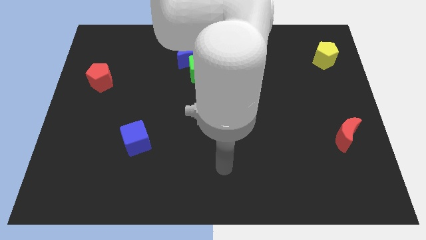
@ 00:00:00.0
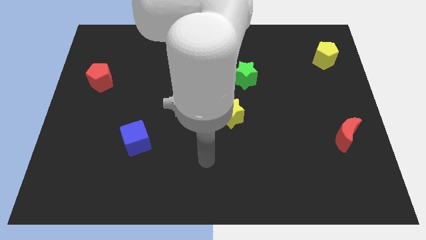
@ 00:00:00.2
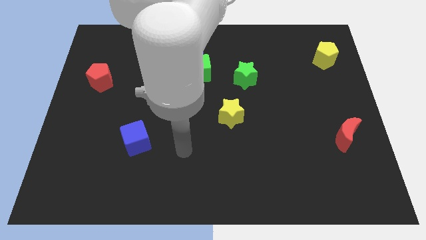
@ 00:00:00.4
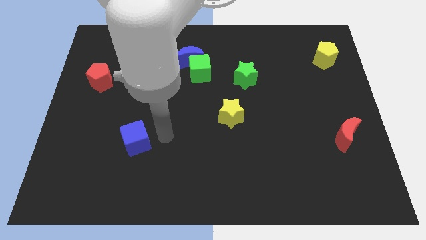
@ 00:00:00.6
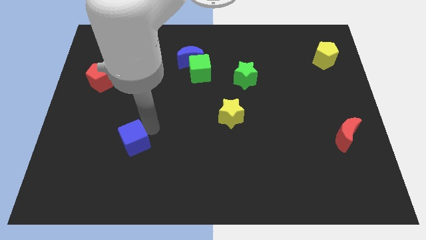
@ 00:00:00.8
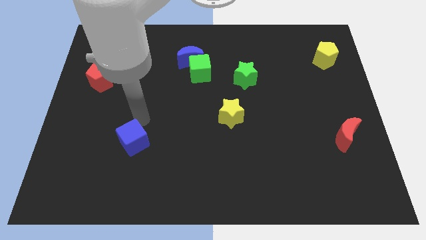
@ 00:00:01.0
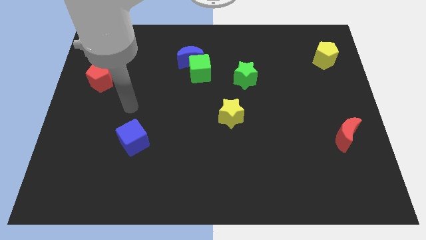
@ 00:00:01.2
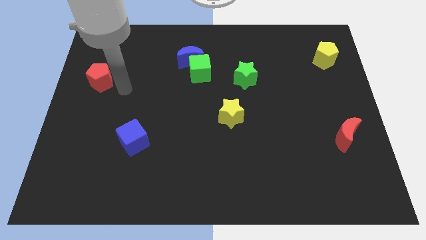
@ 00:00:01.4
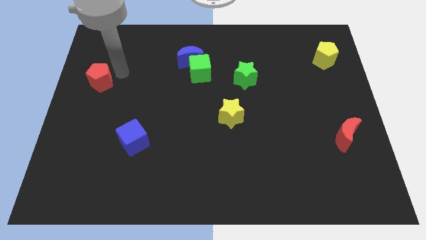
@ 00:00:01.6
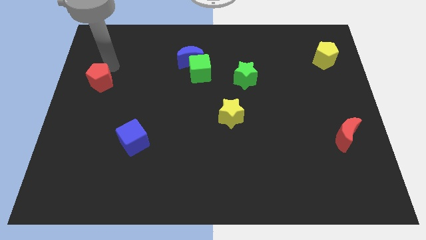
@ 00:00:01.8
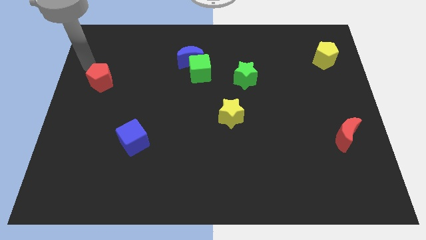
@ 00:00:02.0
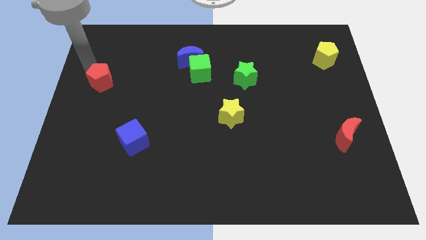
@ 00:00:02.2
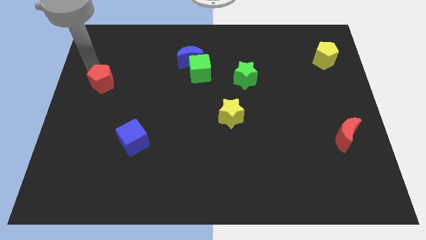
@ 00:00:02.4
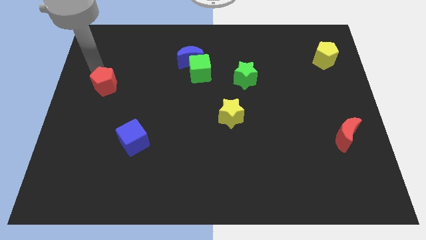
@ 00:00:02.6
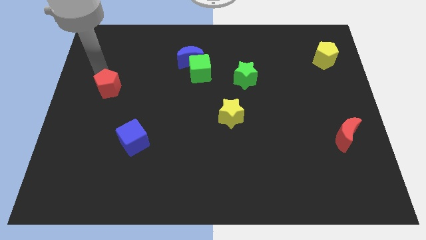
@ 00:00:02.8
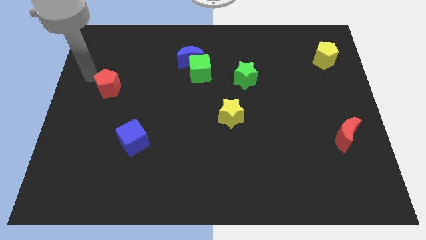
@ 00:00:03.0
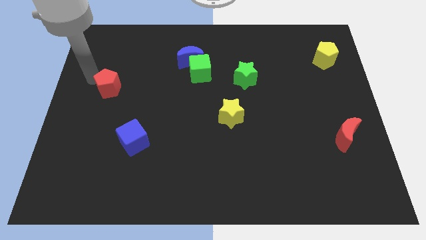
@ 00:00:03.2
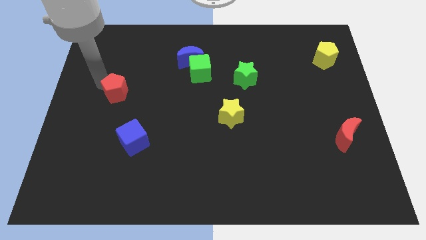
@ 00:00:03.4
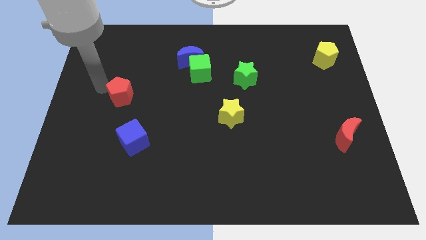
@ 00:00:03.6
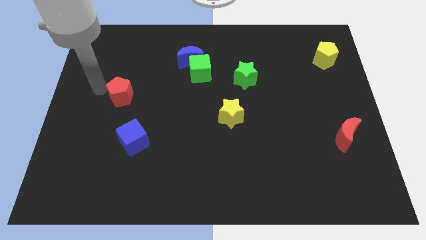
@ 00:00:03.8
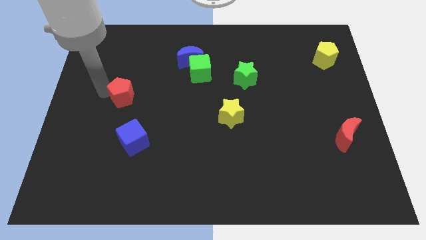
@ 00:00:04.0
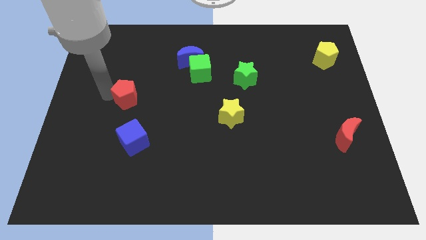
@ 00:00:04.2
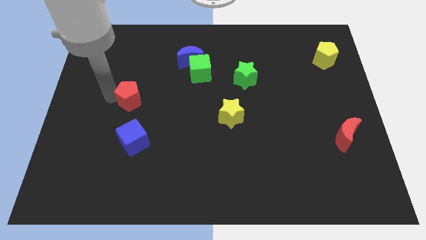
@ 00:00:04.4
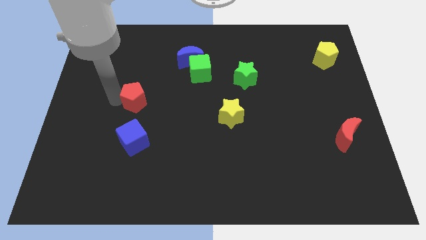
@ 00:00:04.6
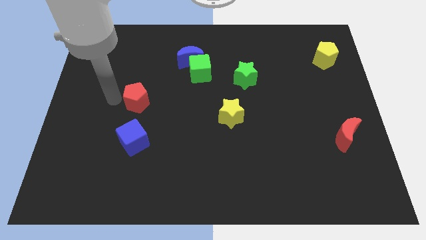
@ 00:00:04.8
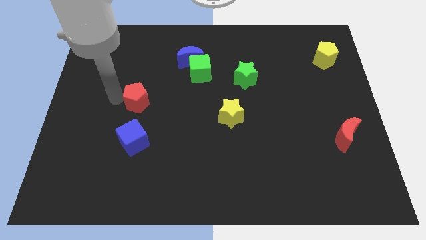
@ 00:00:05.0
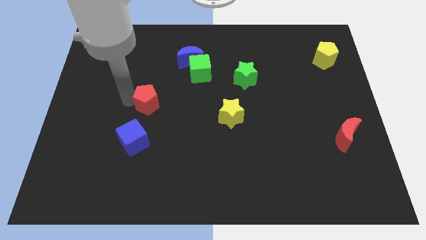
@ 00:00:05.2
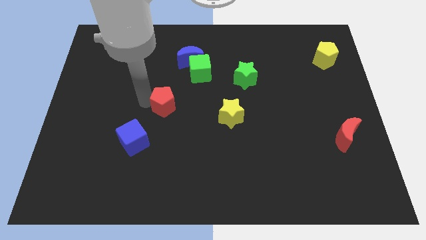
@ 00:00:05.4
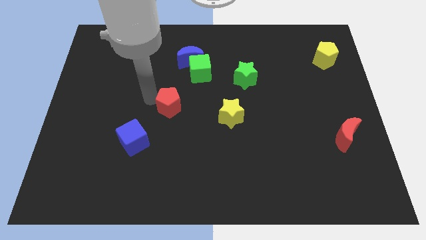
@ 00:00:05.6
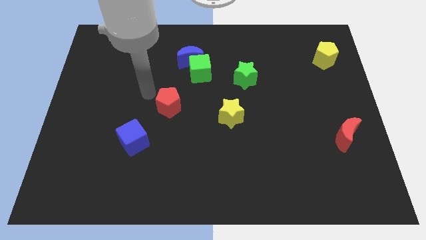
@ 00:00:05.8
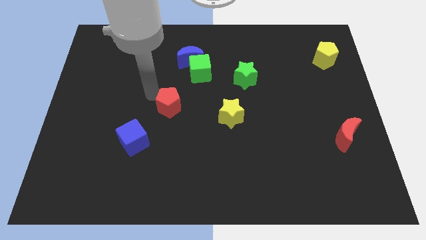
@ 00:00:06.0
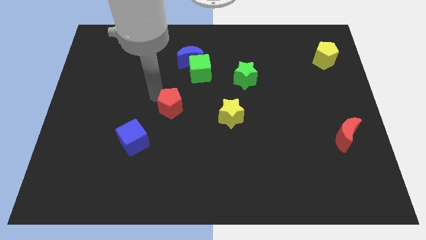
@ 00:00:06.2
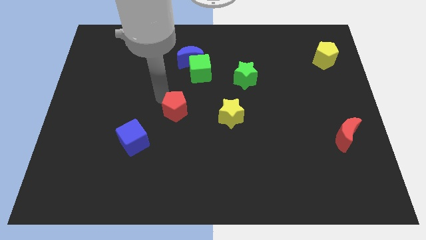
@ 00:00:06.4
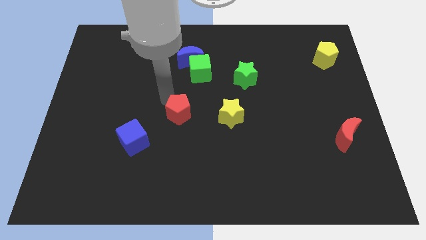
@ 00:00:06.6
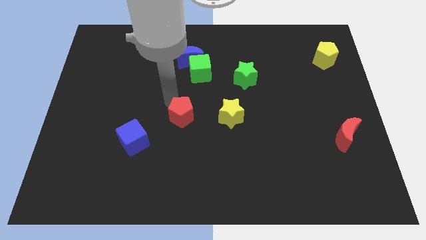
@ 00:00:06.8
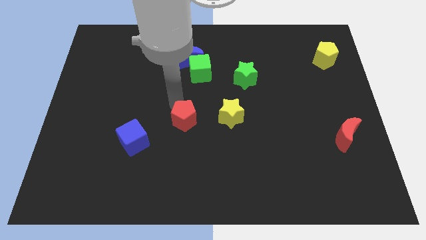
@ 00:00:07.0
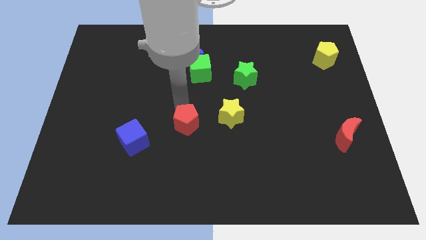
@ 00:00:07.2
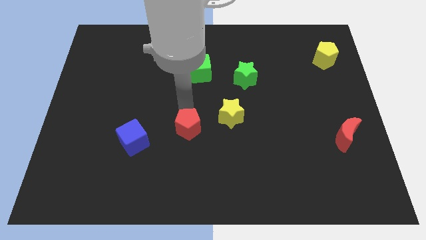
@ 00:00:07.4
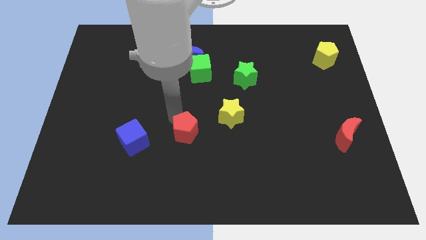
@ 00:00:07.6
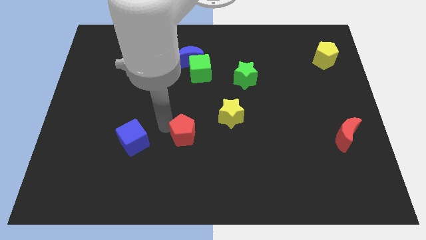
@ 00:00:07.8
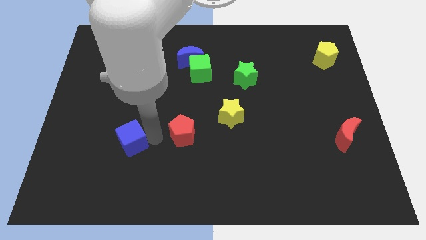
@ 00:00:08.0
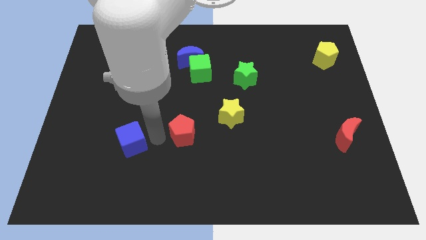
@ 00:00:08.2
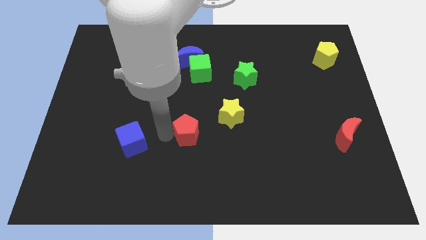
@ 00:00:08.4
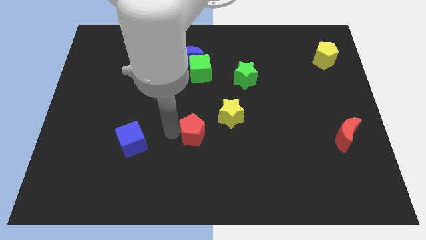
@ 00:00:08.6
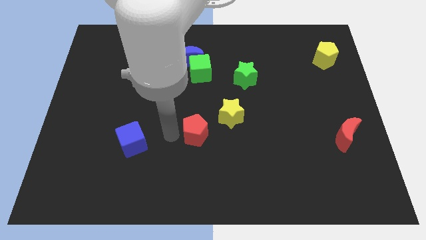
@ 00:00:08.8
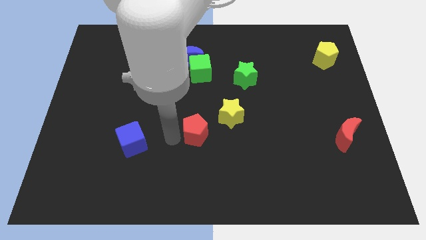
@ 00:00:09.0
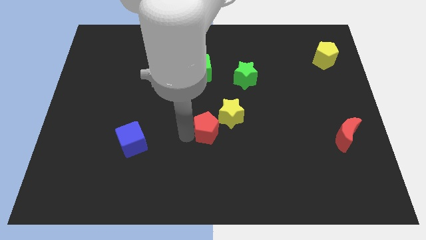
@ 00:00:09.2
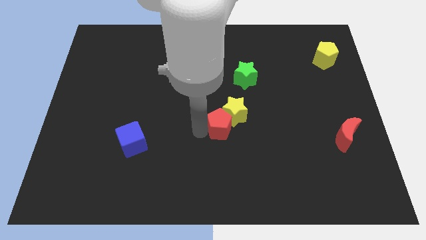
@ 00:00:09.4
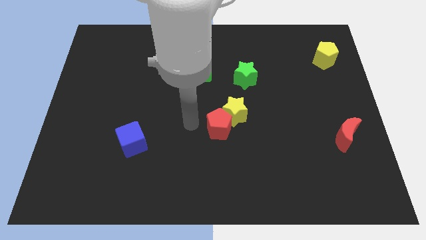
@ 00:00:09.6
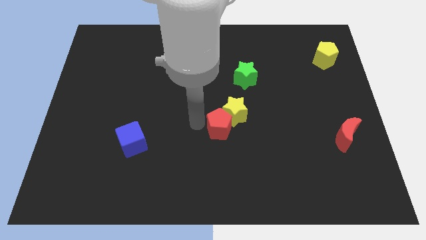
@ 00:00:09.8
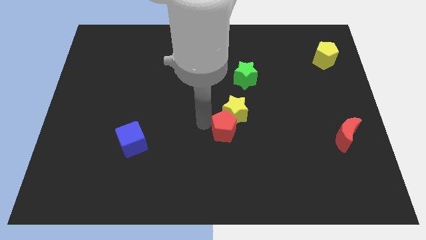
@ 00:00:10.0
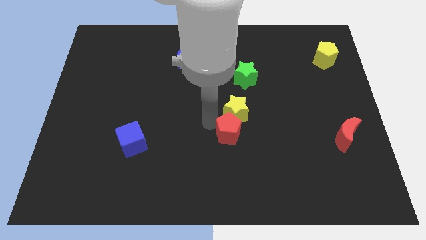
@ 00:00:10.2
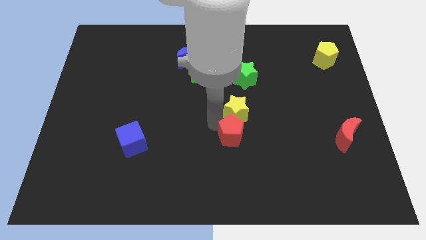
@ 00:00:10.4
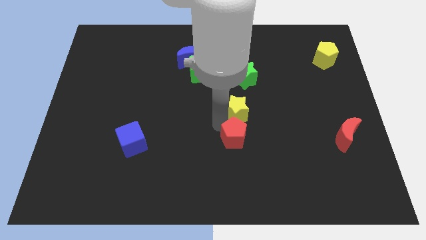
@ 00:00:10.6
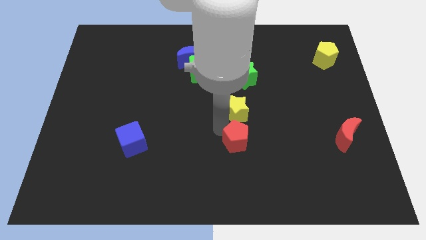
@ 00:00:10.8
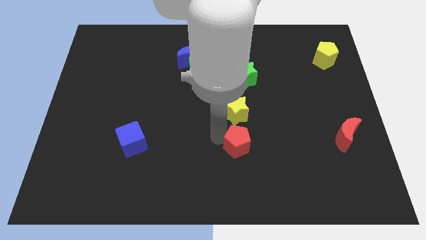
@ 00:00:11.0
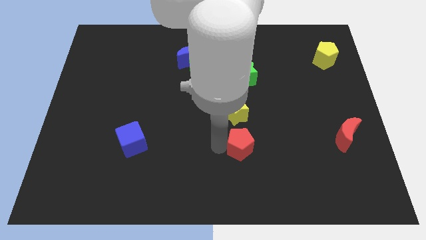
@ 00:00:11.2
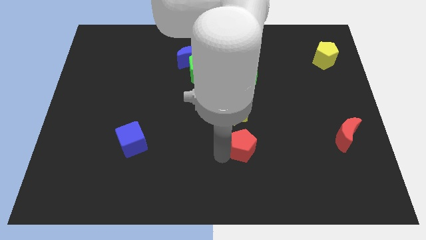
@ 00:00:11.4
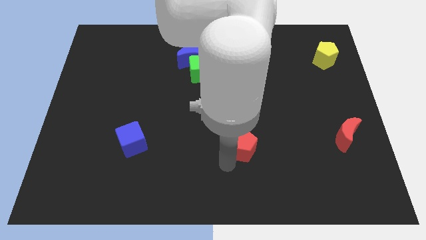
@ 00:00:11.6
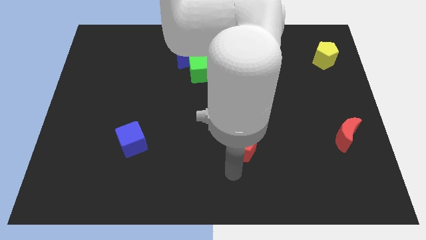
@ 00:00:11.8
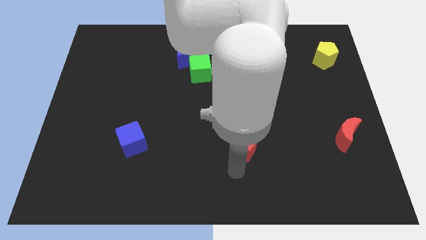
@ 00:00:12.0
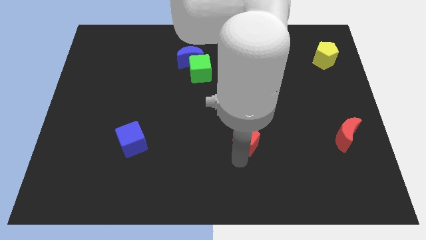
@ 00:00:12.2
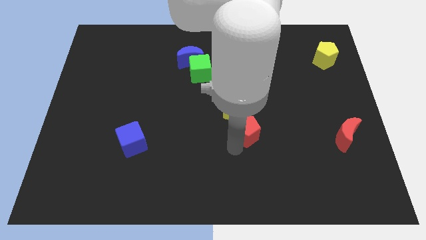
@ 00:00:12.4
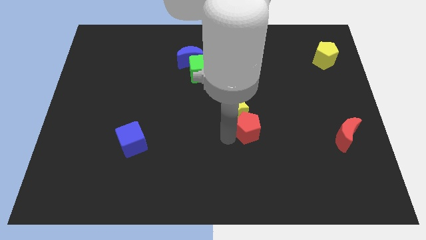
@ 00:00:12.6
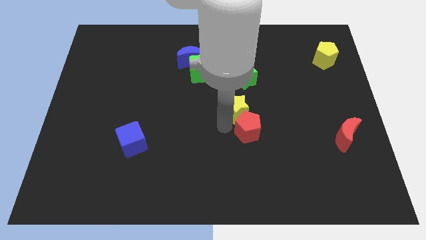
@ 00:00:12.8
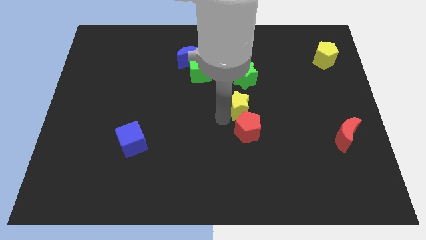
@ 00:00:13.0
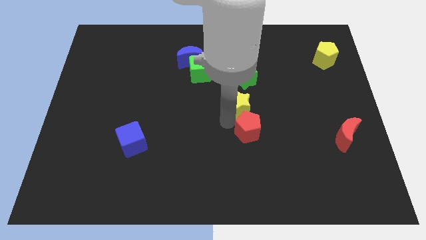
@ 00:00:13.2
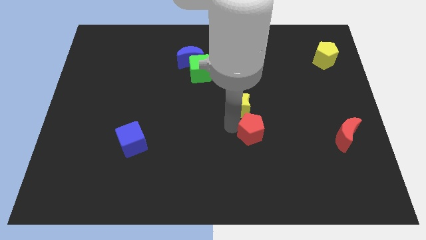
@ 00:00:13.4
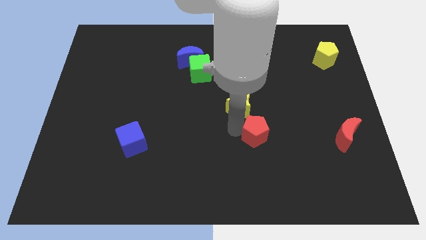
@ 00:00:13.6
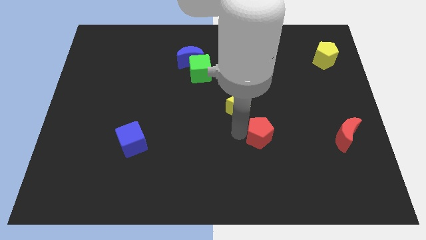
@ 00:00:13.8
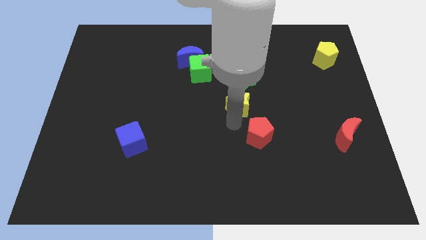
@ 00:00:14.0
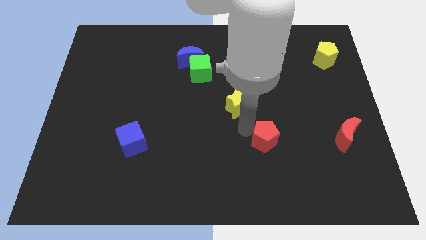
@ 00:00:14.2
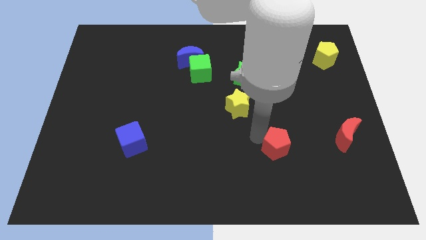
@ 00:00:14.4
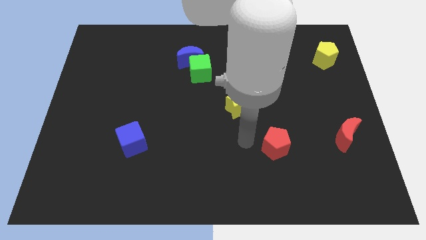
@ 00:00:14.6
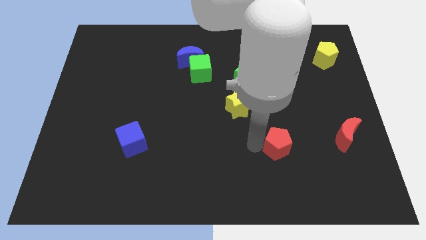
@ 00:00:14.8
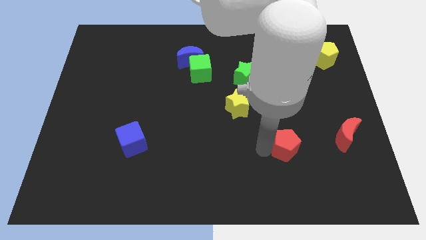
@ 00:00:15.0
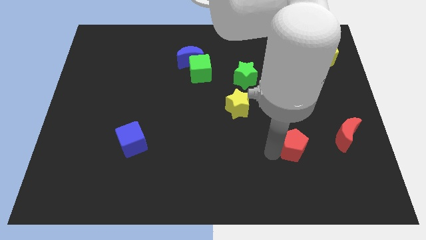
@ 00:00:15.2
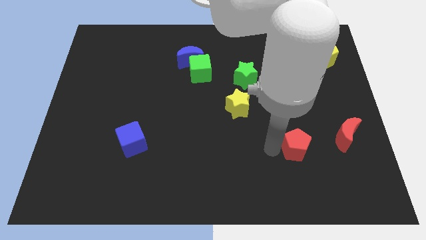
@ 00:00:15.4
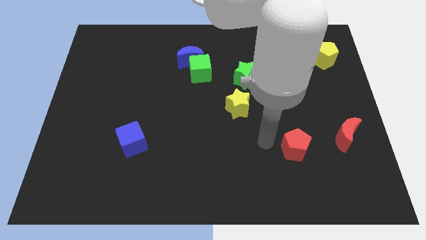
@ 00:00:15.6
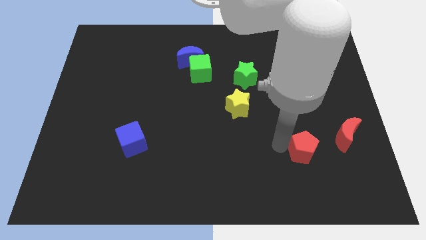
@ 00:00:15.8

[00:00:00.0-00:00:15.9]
put the red pentagon diagonally down and to the left of the red moon
